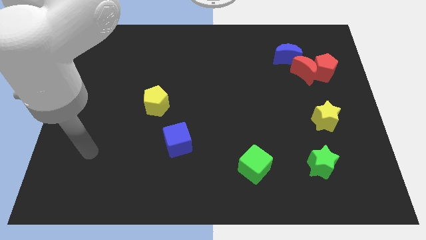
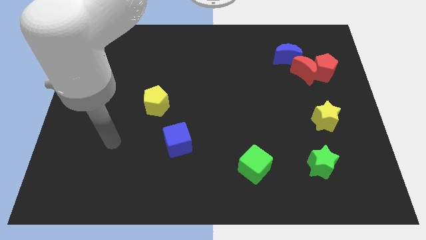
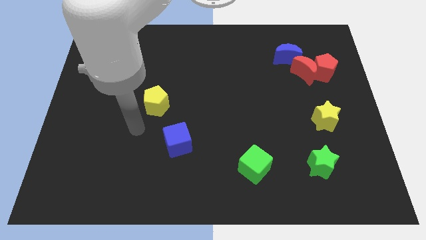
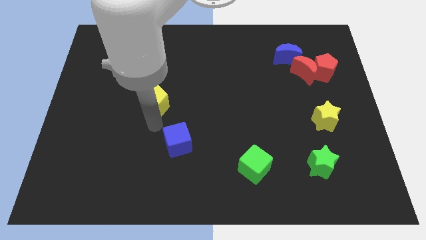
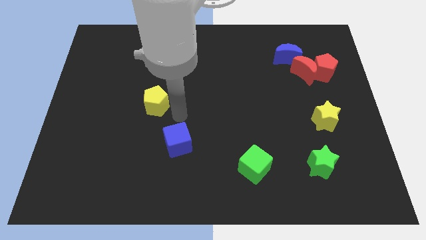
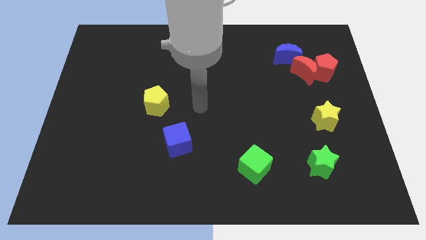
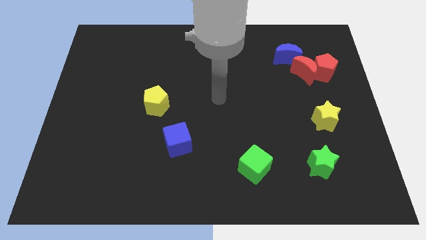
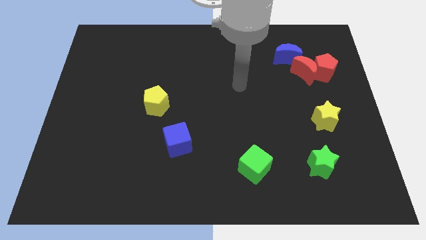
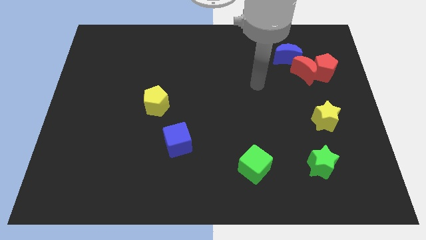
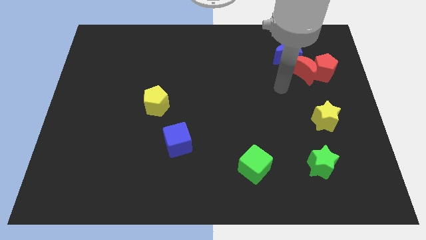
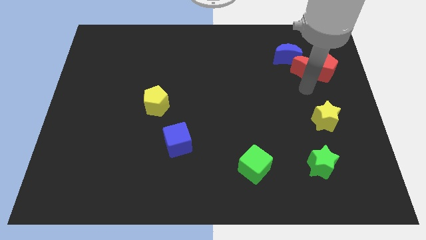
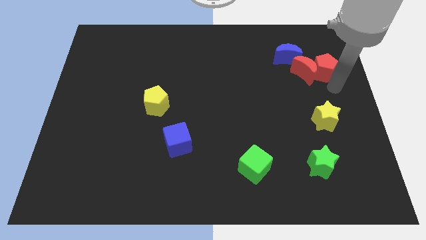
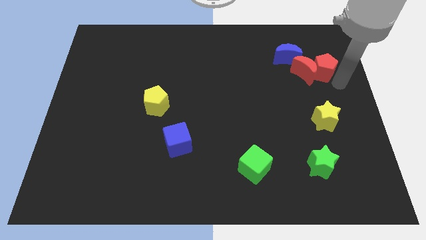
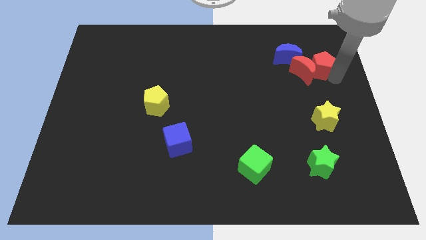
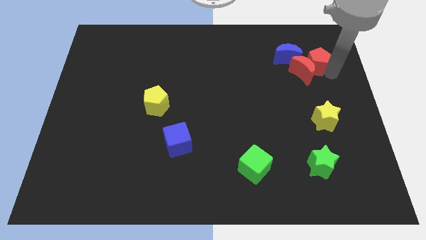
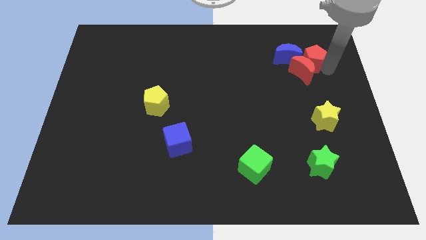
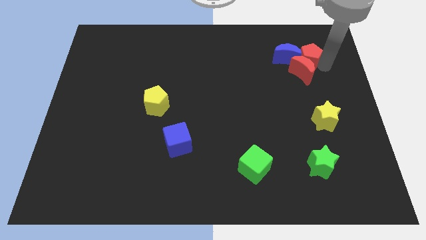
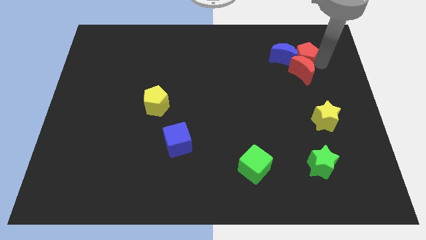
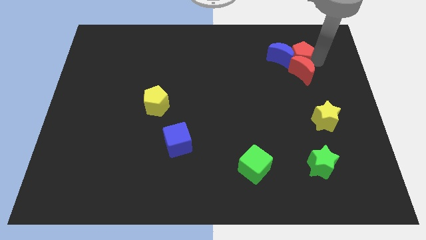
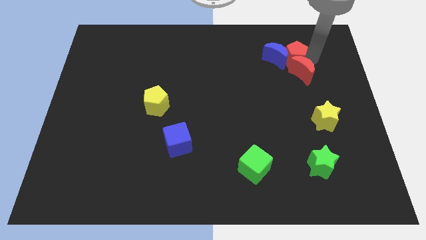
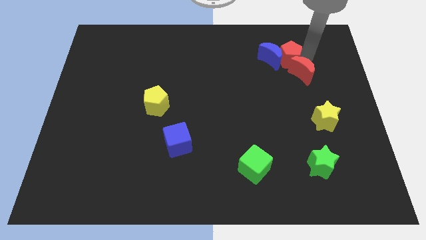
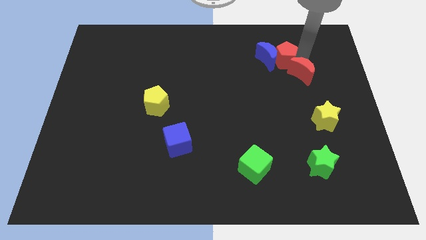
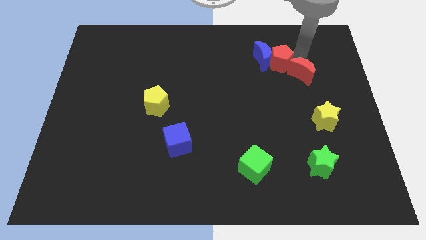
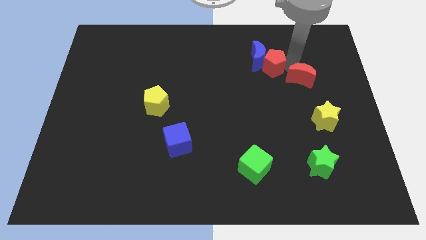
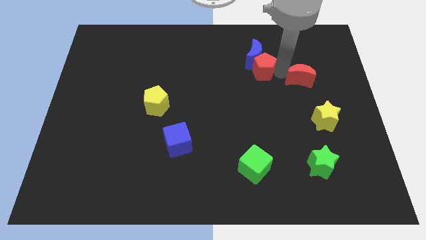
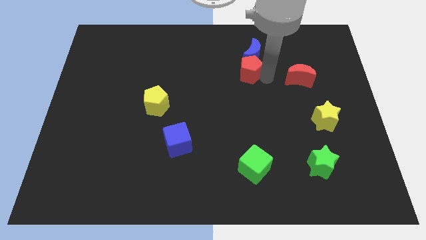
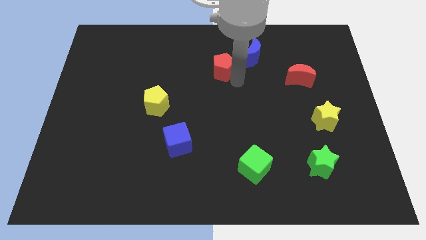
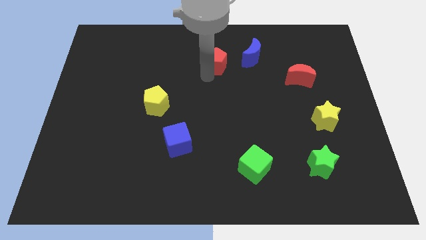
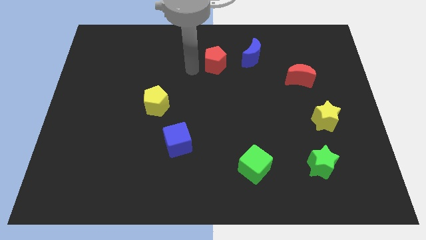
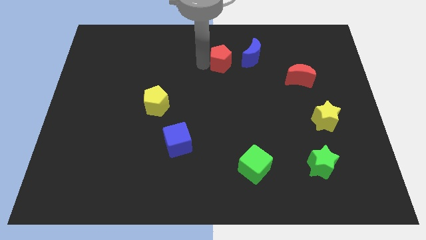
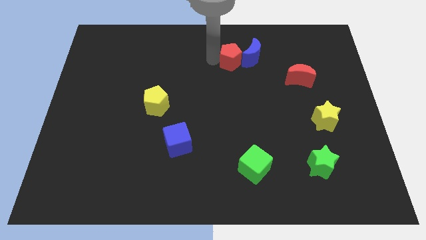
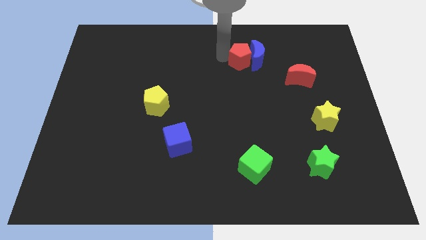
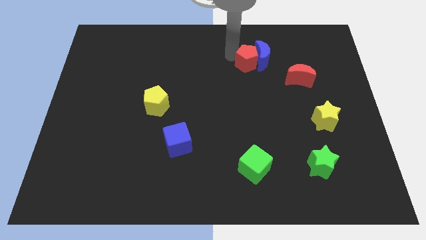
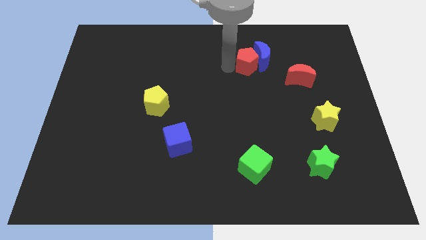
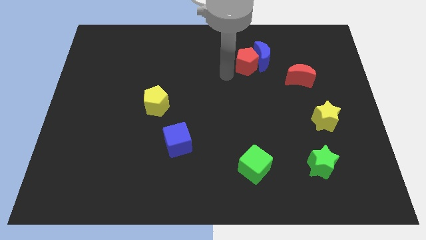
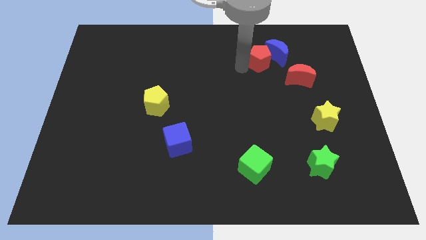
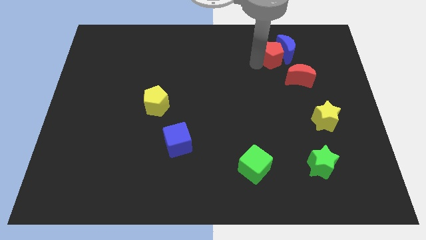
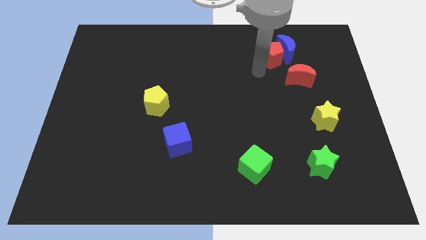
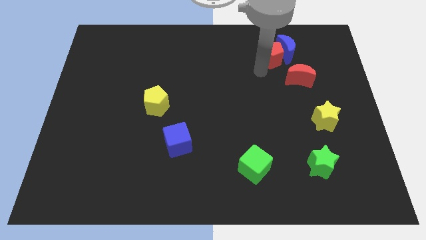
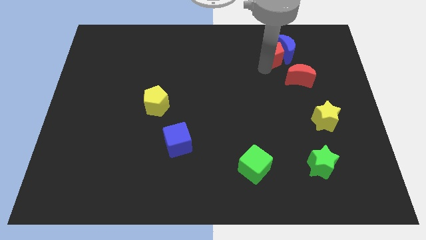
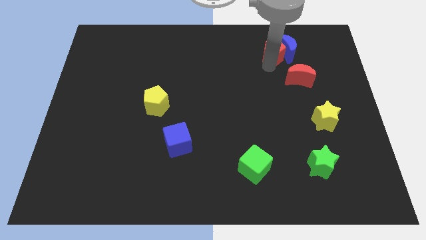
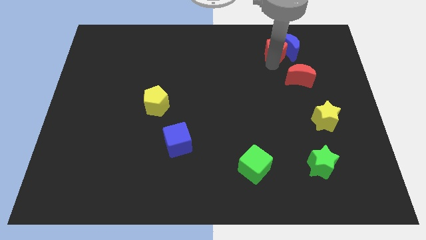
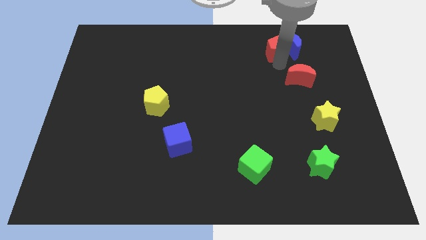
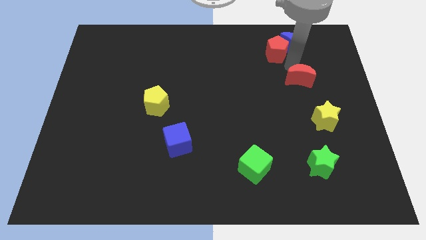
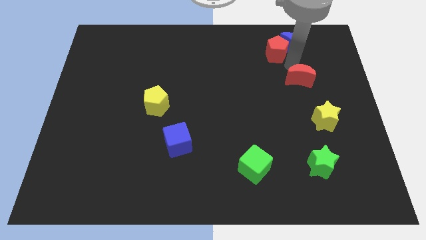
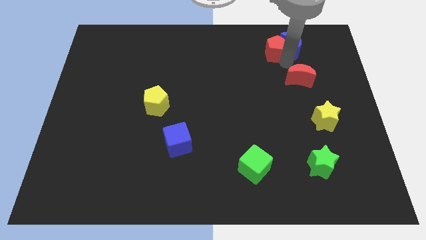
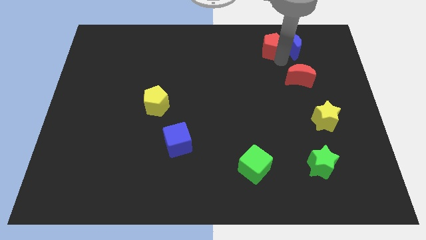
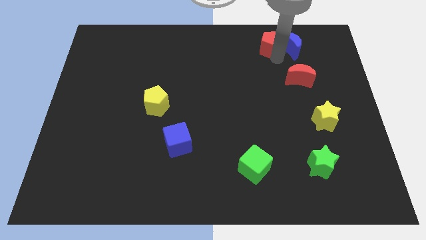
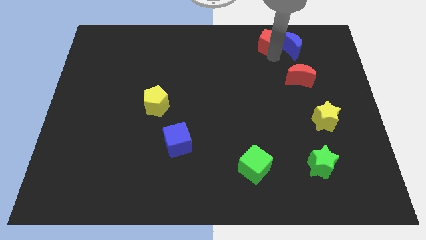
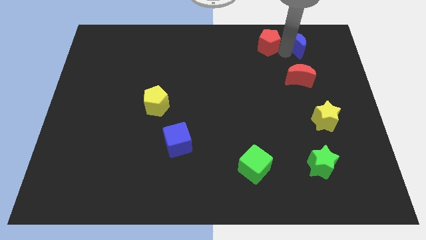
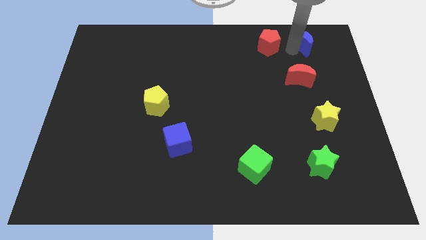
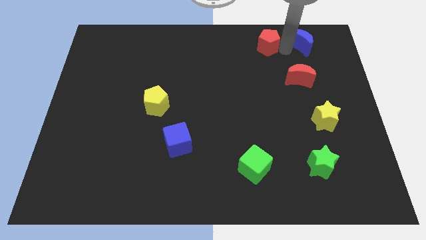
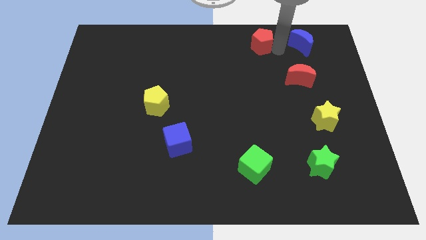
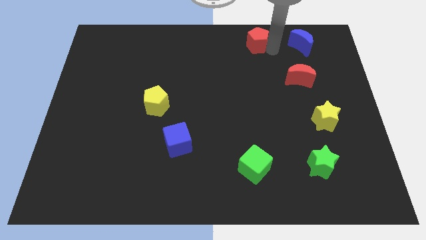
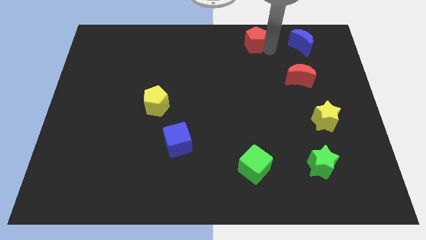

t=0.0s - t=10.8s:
slide the red pentagon to the towards your base

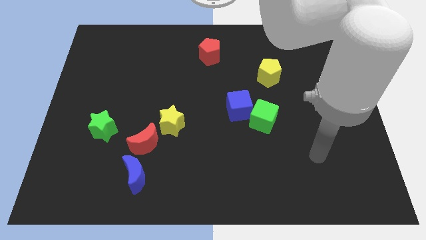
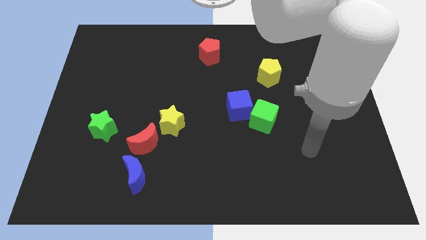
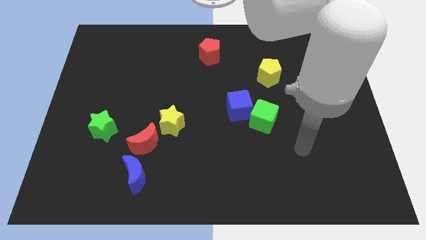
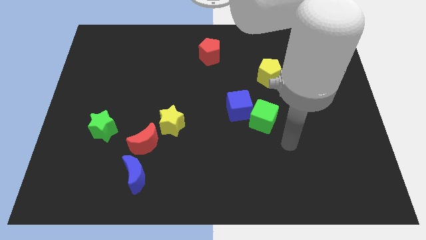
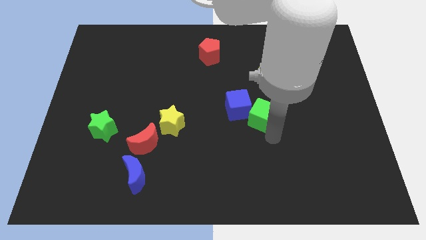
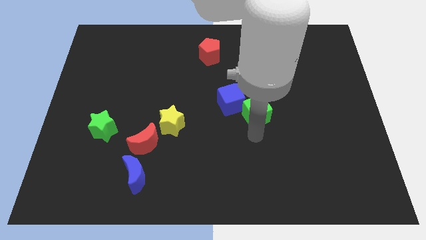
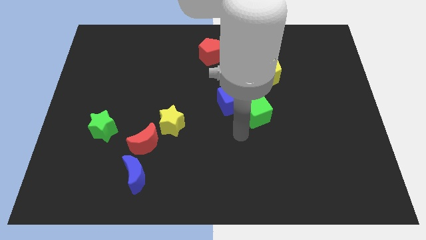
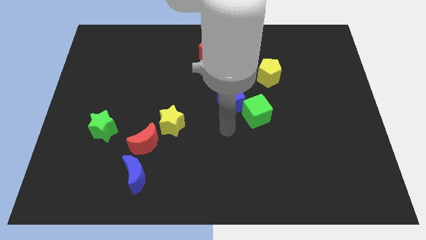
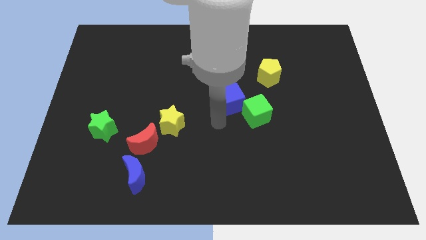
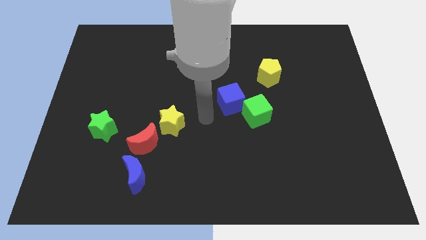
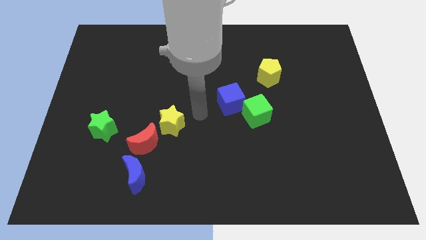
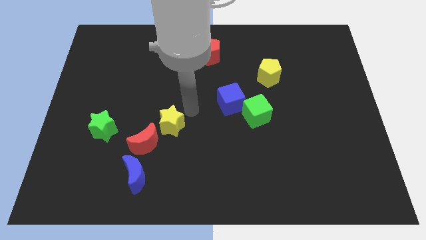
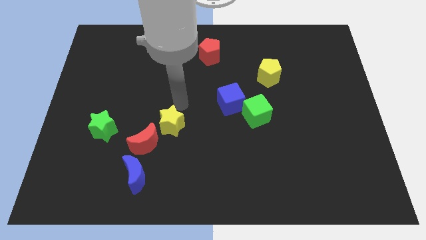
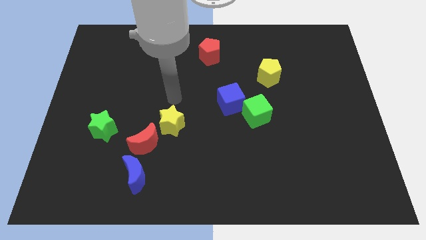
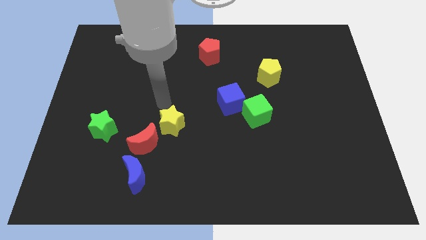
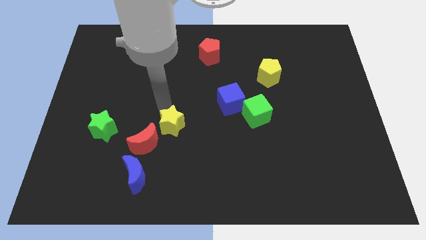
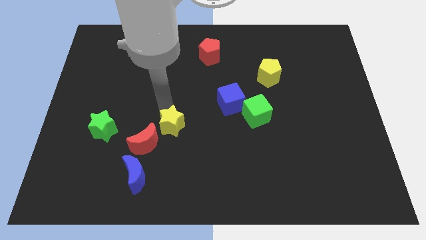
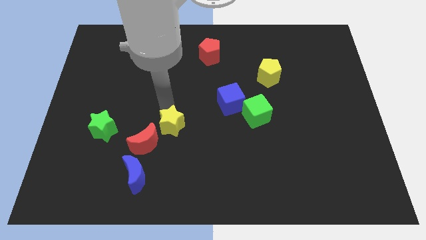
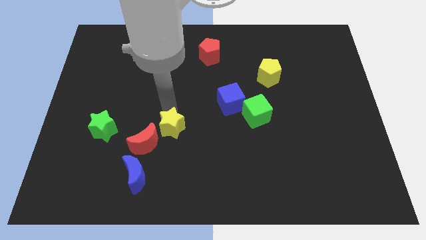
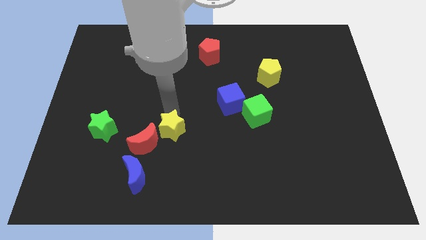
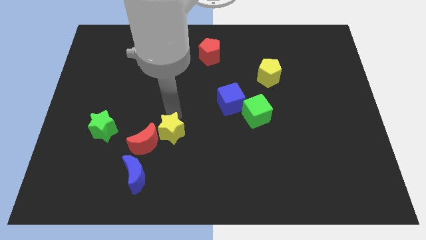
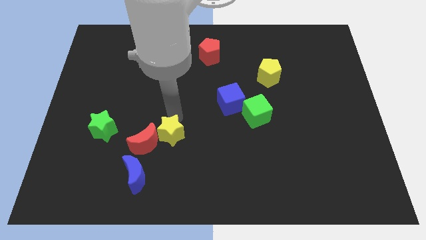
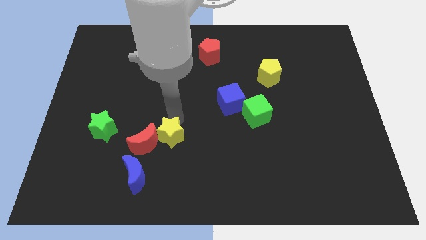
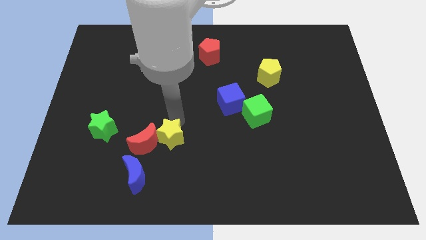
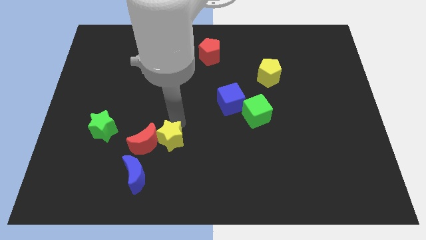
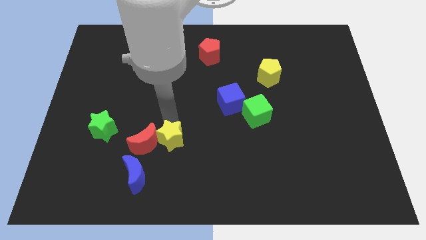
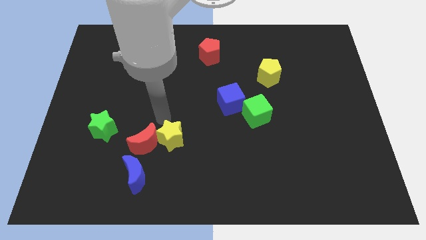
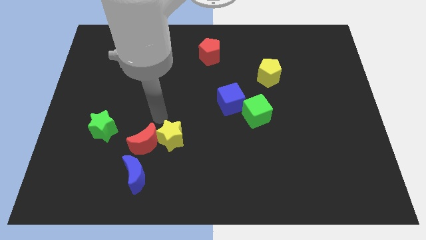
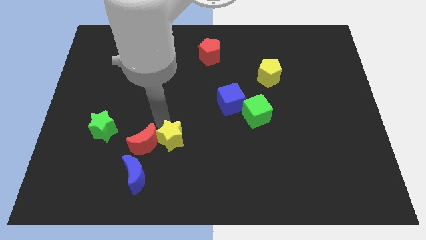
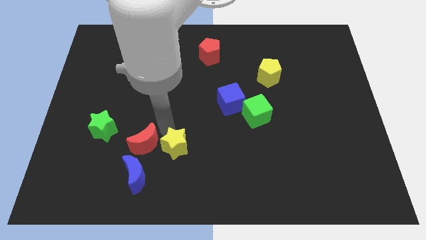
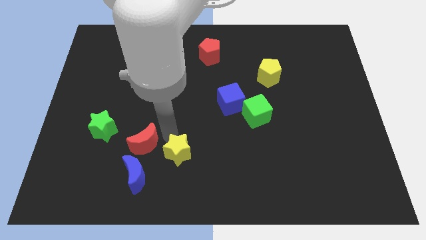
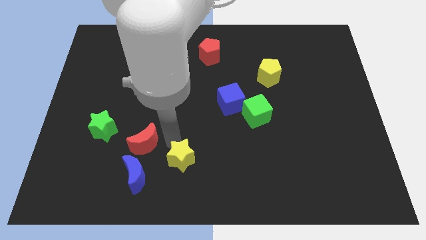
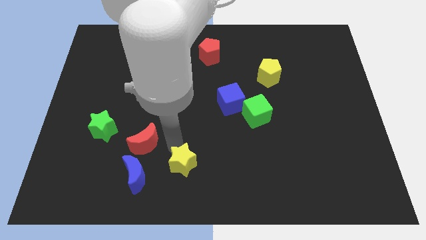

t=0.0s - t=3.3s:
move the yellow star to the bottom side
